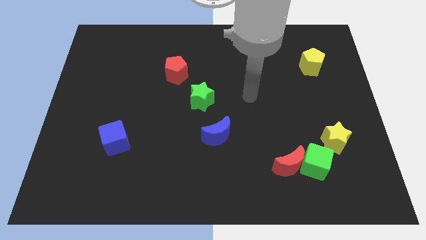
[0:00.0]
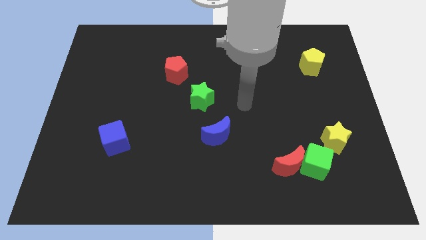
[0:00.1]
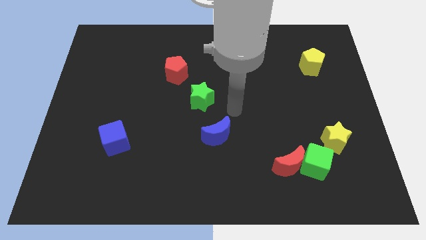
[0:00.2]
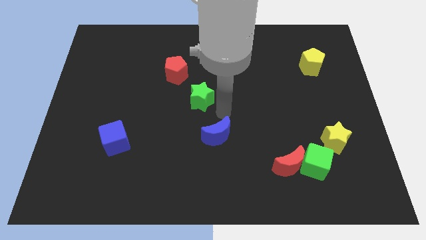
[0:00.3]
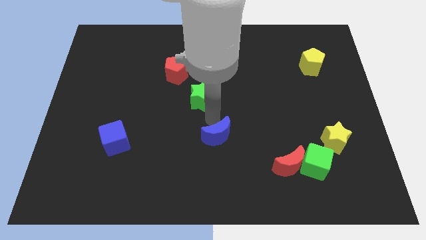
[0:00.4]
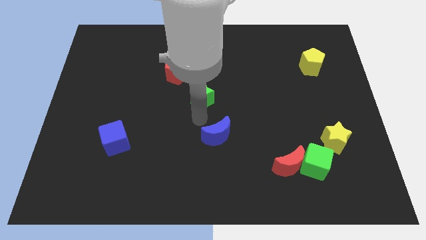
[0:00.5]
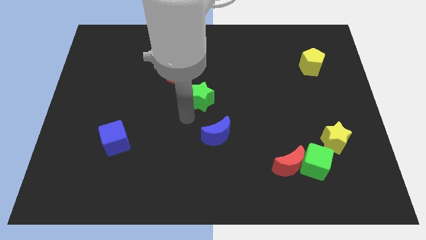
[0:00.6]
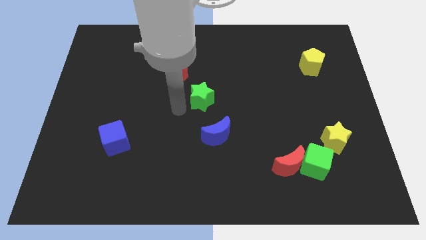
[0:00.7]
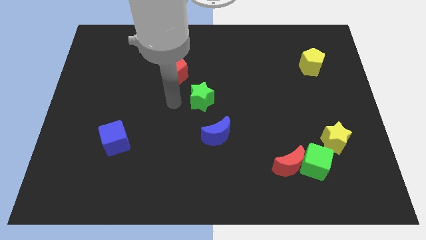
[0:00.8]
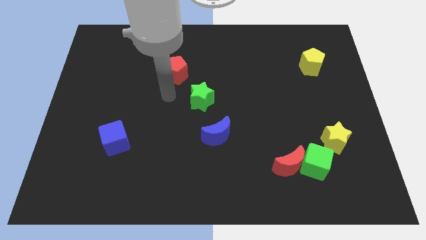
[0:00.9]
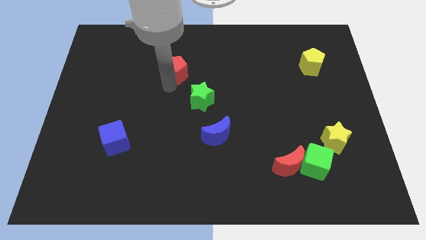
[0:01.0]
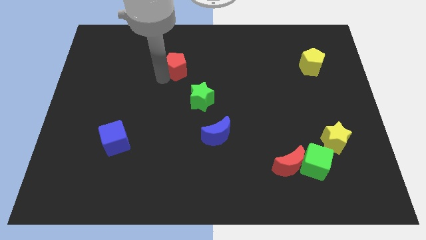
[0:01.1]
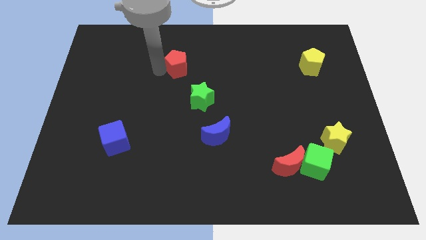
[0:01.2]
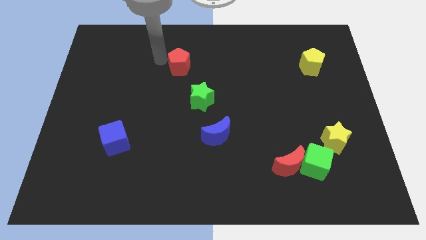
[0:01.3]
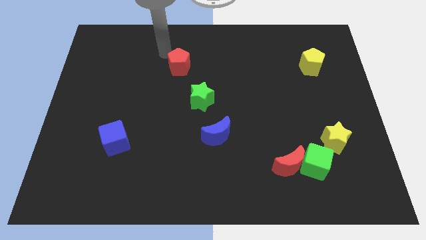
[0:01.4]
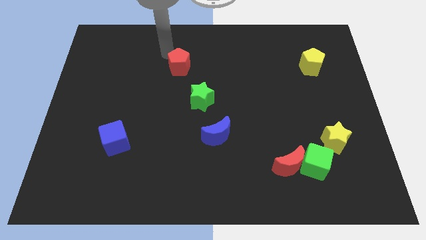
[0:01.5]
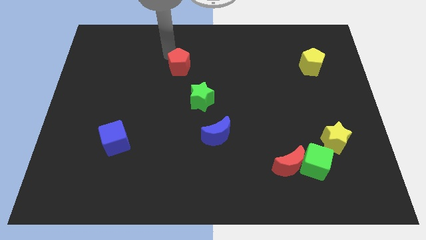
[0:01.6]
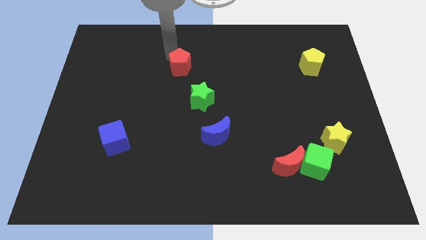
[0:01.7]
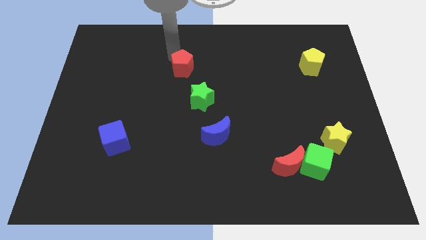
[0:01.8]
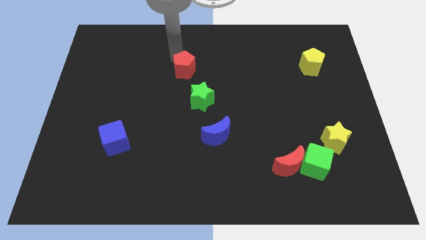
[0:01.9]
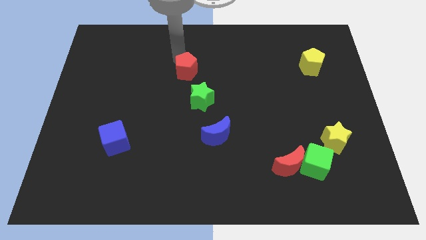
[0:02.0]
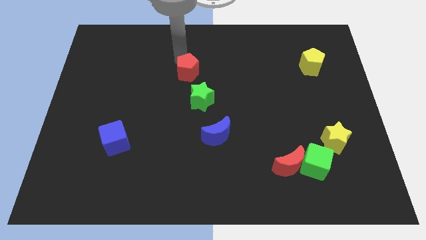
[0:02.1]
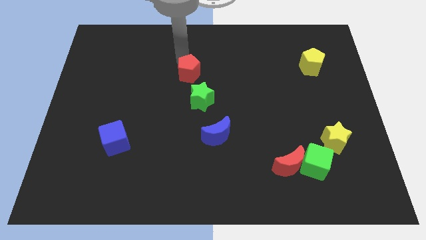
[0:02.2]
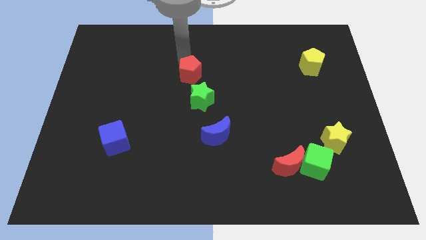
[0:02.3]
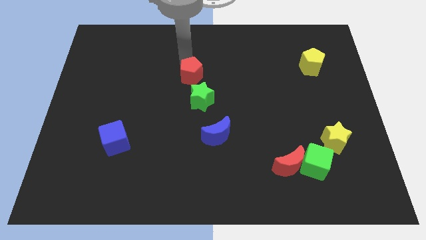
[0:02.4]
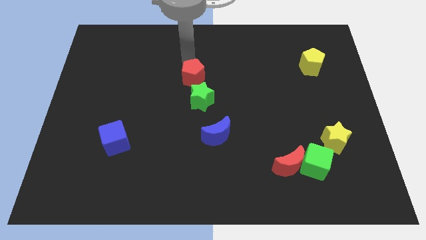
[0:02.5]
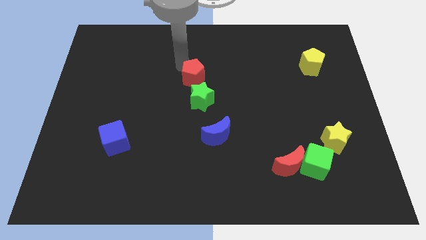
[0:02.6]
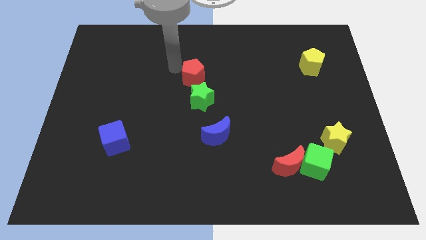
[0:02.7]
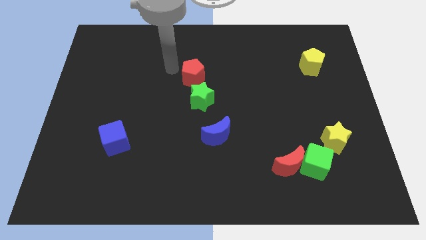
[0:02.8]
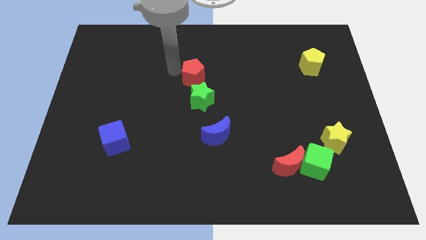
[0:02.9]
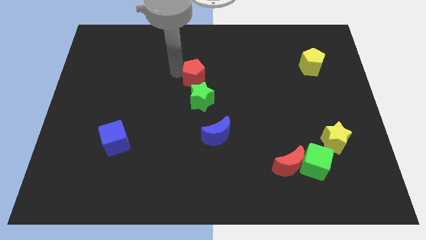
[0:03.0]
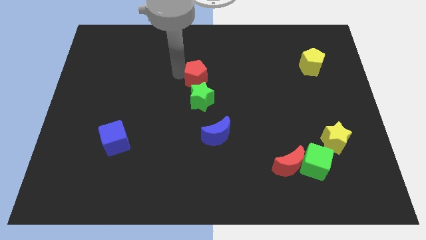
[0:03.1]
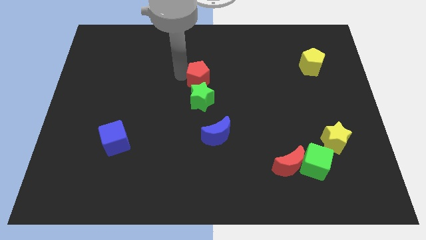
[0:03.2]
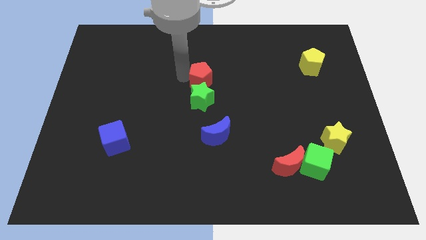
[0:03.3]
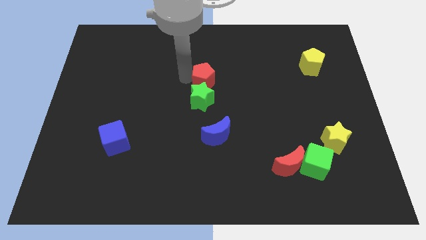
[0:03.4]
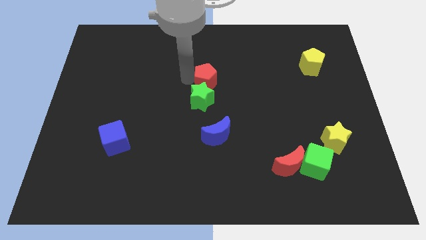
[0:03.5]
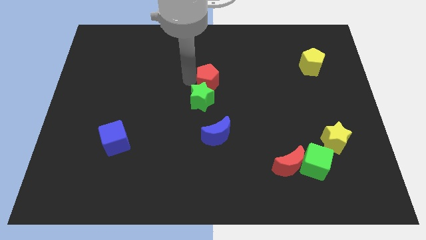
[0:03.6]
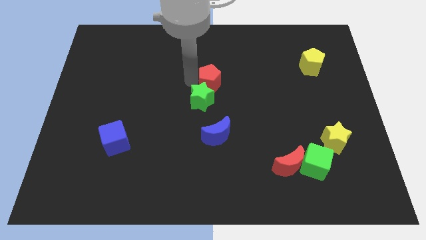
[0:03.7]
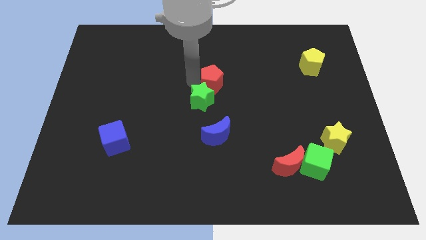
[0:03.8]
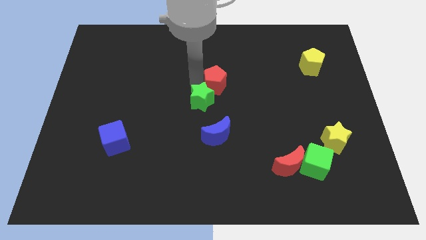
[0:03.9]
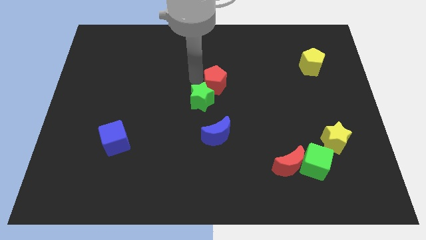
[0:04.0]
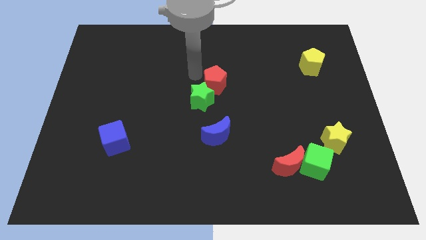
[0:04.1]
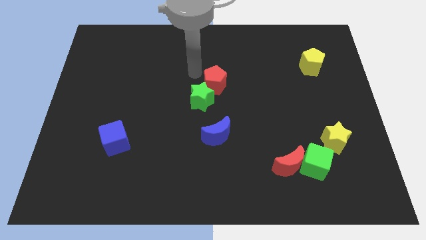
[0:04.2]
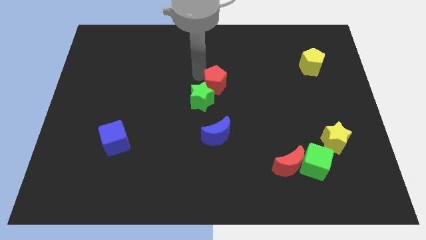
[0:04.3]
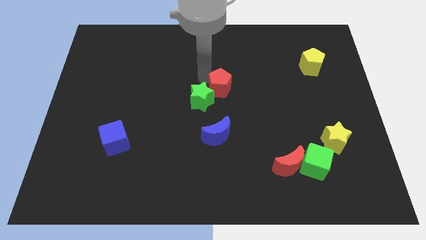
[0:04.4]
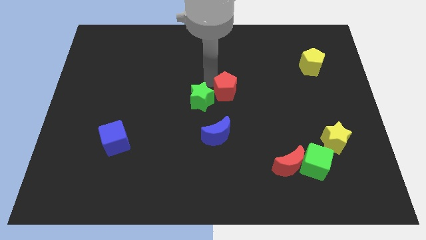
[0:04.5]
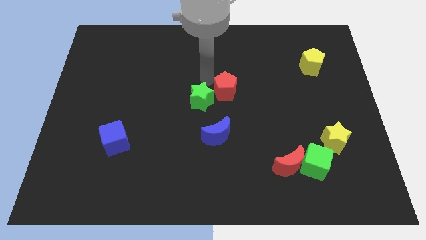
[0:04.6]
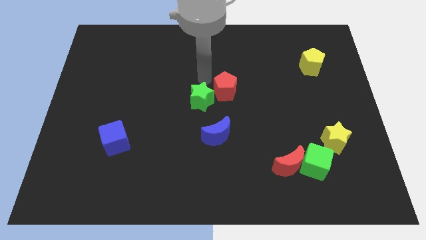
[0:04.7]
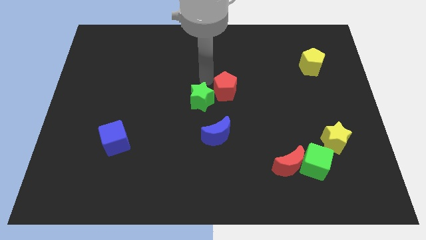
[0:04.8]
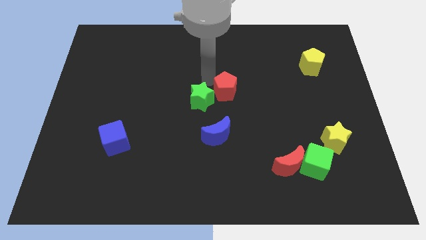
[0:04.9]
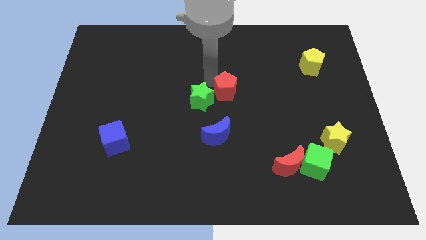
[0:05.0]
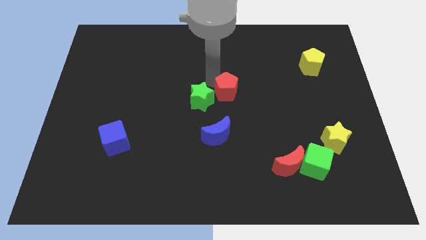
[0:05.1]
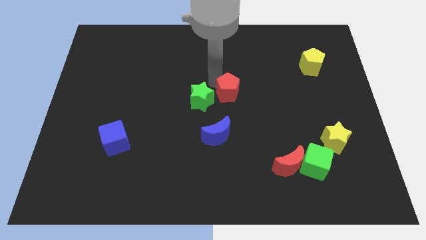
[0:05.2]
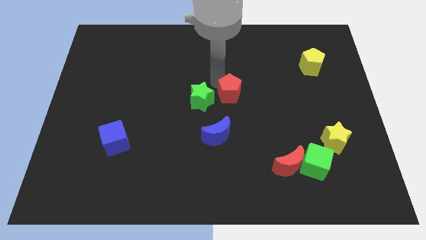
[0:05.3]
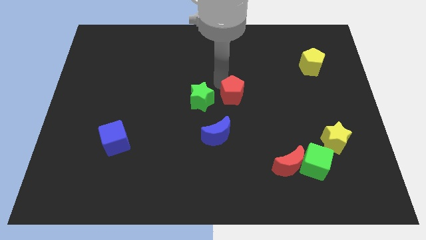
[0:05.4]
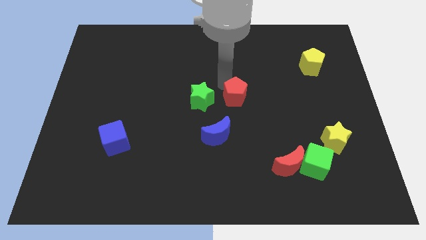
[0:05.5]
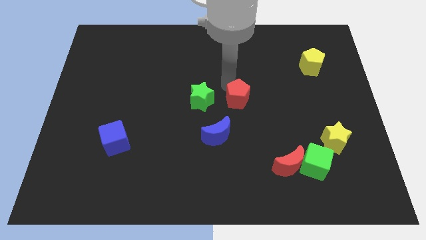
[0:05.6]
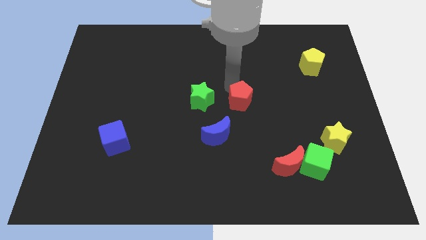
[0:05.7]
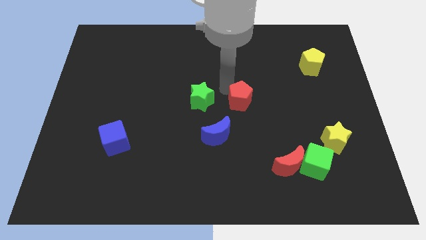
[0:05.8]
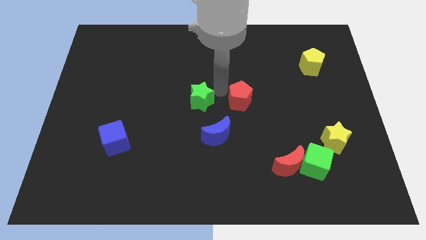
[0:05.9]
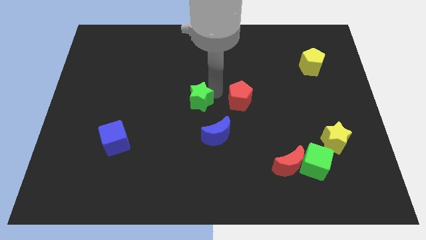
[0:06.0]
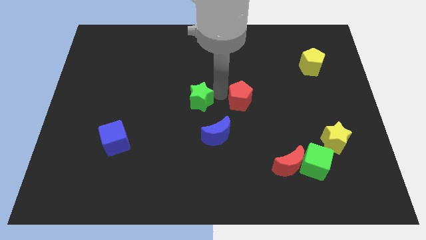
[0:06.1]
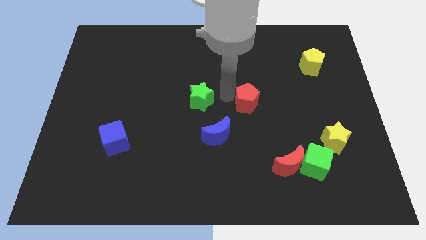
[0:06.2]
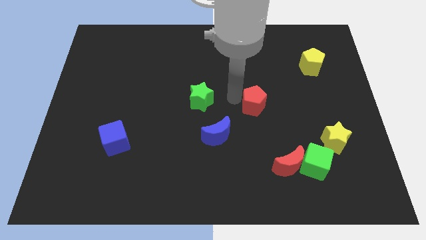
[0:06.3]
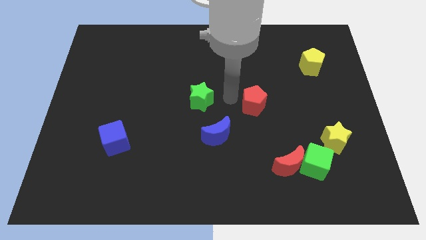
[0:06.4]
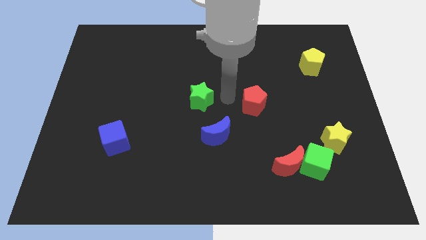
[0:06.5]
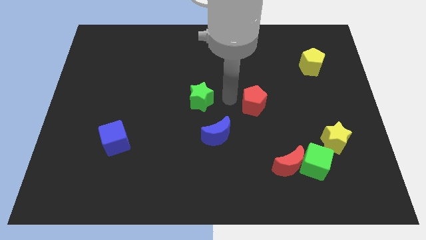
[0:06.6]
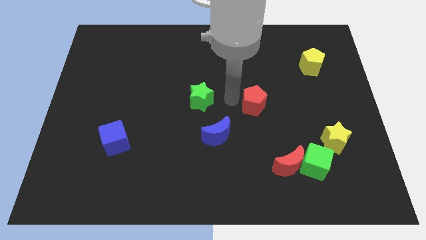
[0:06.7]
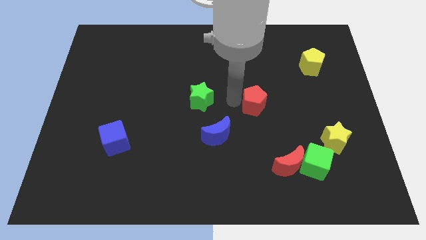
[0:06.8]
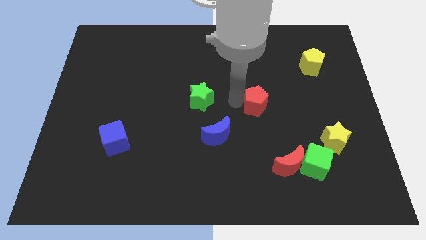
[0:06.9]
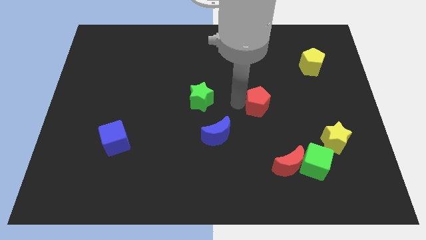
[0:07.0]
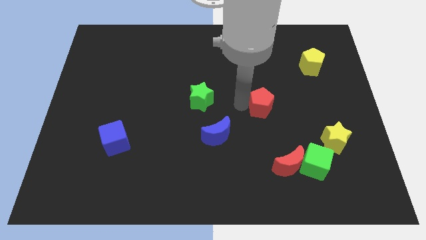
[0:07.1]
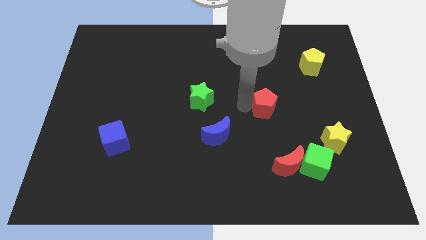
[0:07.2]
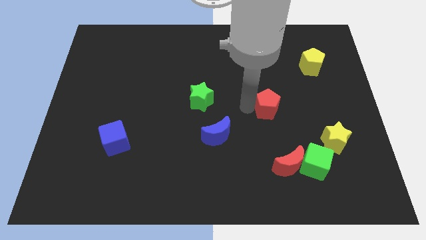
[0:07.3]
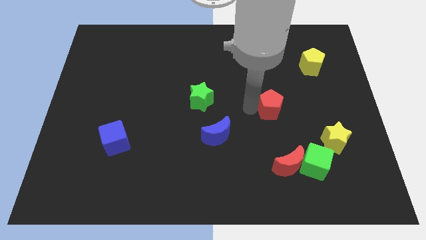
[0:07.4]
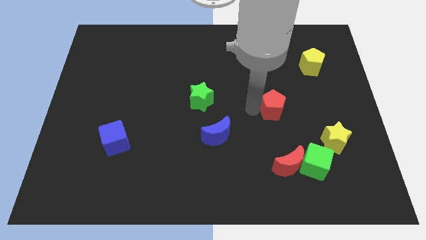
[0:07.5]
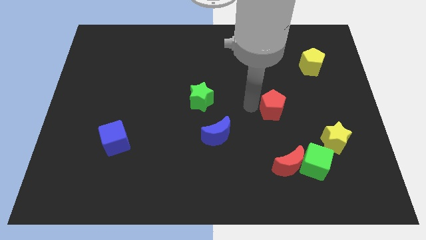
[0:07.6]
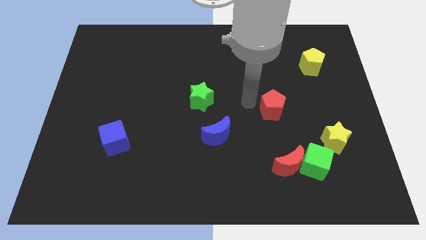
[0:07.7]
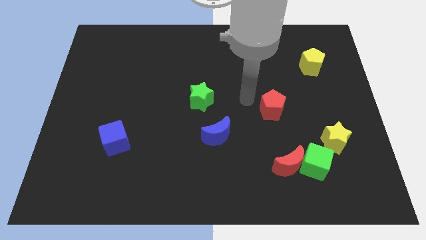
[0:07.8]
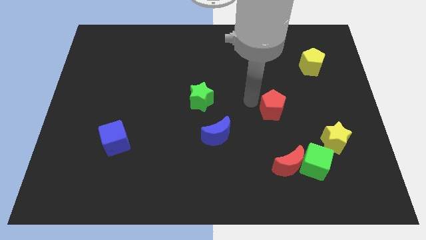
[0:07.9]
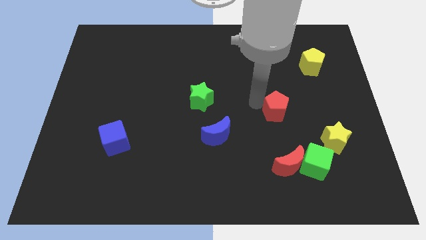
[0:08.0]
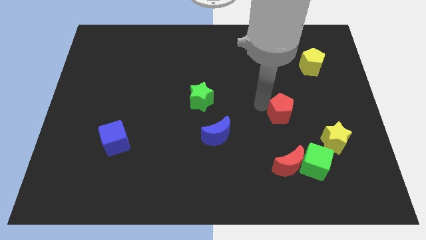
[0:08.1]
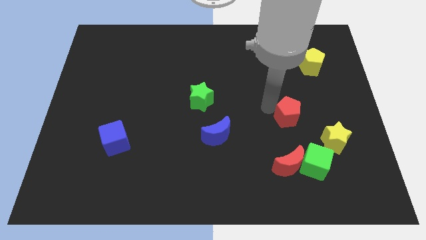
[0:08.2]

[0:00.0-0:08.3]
move the red pentagon above the green cube
